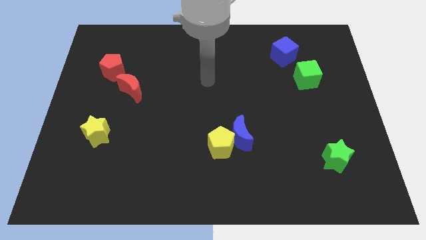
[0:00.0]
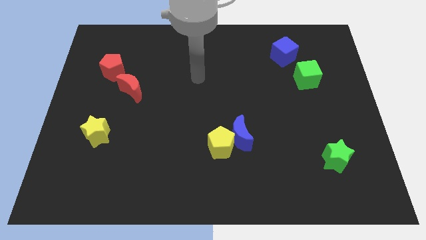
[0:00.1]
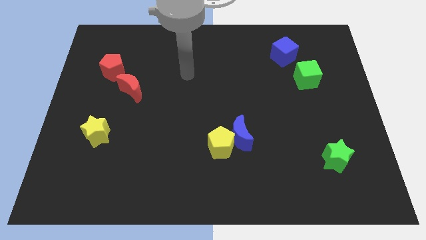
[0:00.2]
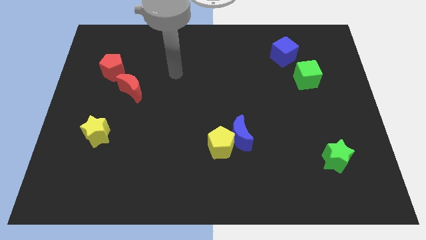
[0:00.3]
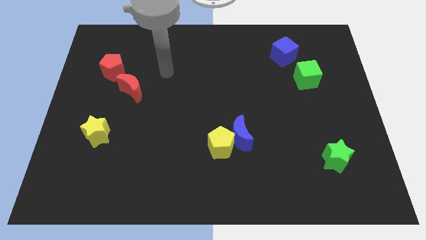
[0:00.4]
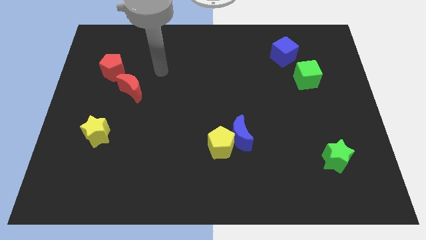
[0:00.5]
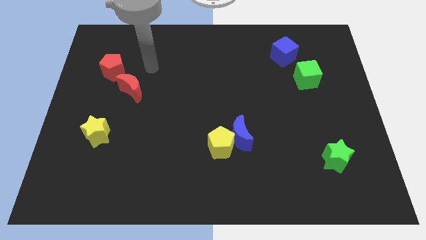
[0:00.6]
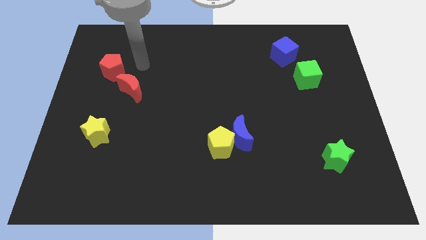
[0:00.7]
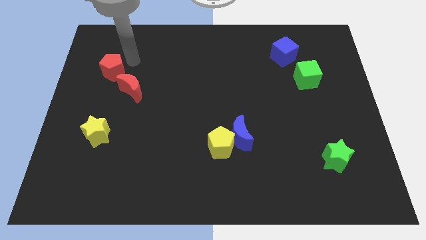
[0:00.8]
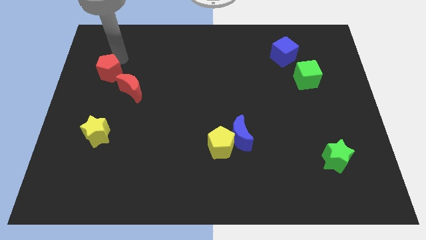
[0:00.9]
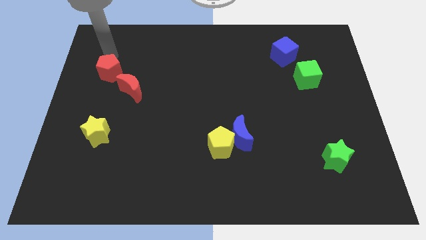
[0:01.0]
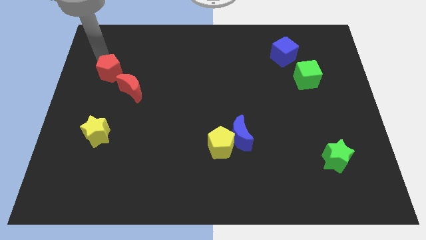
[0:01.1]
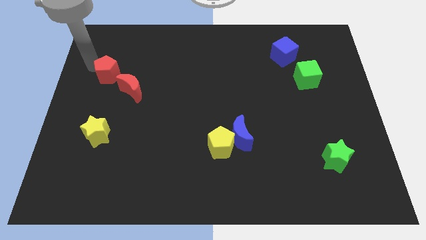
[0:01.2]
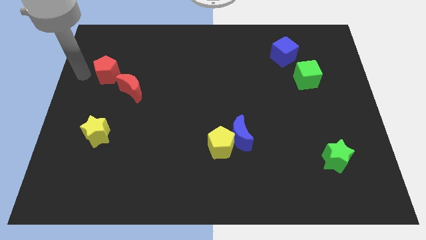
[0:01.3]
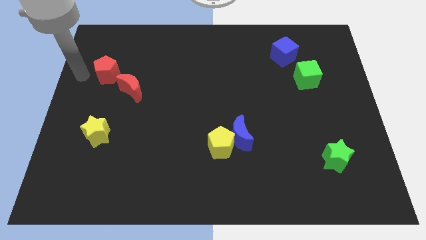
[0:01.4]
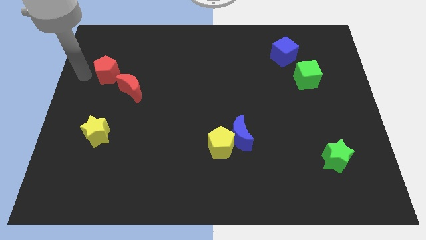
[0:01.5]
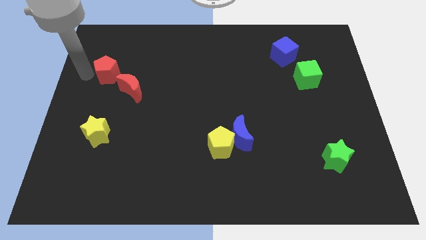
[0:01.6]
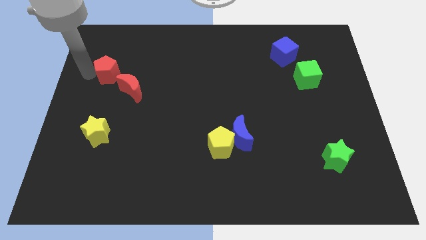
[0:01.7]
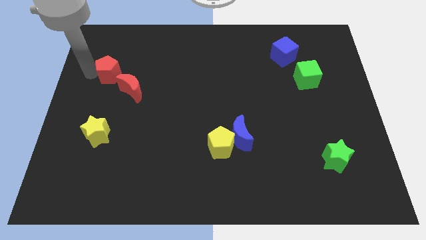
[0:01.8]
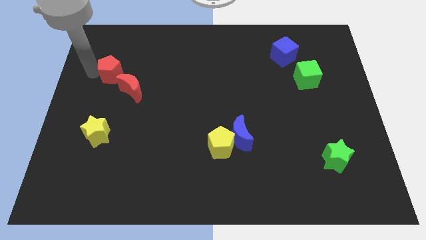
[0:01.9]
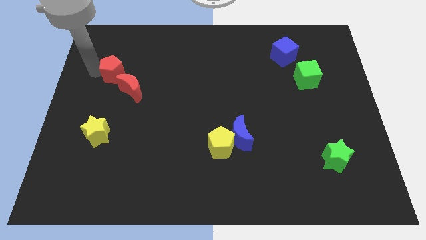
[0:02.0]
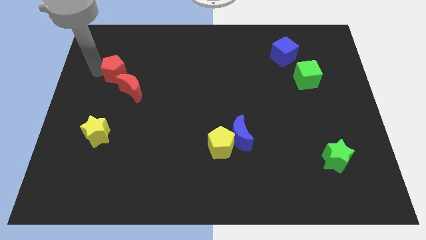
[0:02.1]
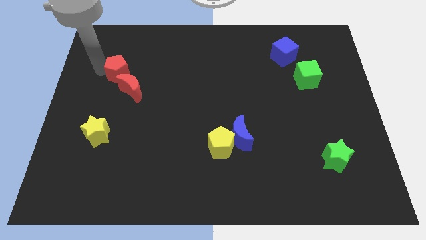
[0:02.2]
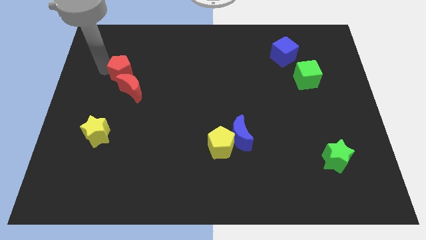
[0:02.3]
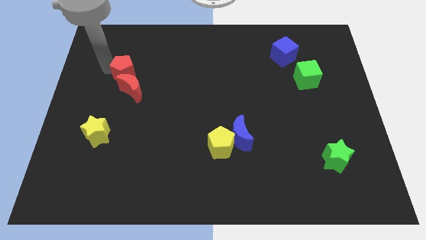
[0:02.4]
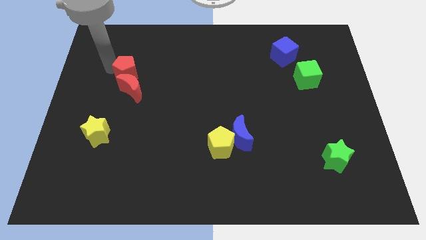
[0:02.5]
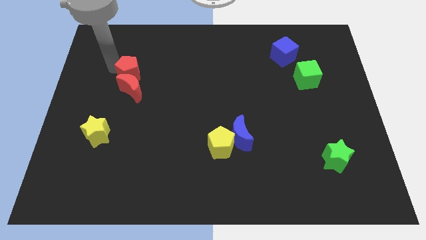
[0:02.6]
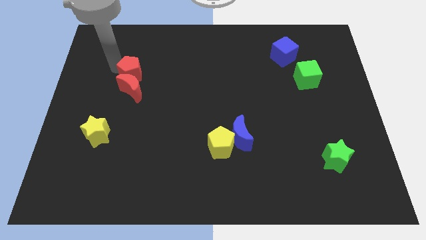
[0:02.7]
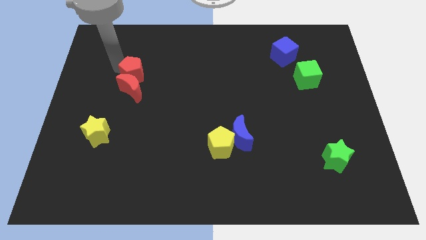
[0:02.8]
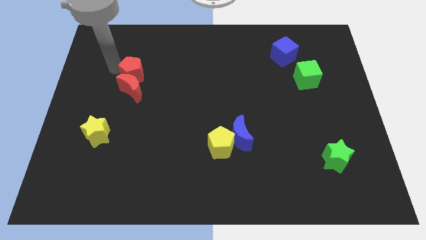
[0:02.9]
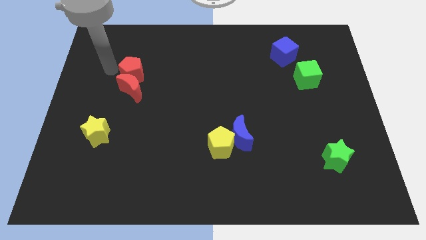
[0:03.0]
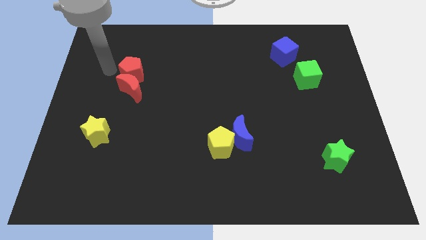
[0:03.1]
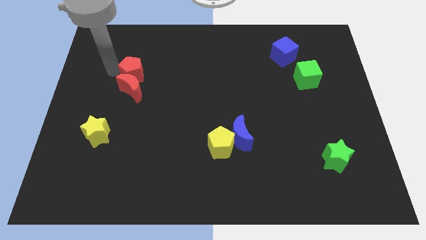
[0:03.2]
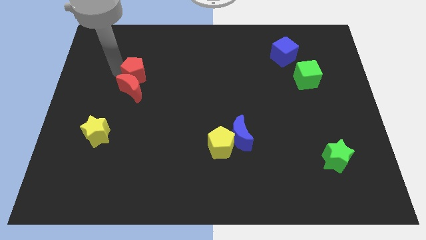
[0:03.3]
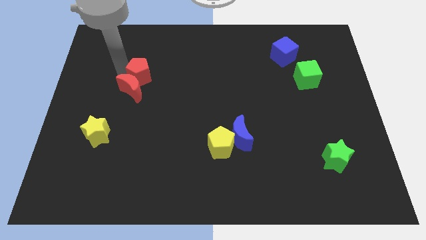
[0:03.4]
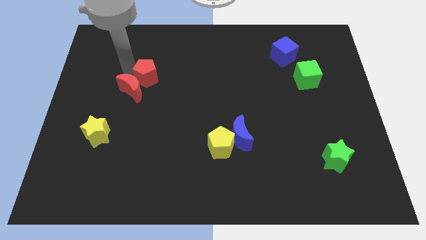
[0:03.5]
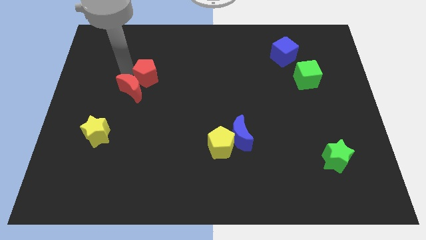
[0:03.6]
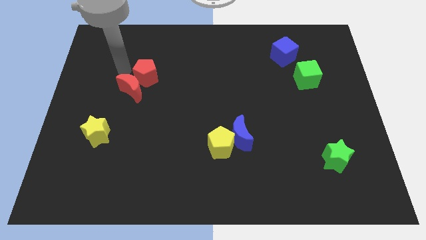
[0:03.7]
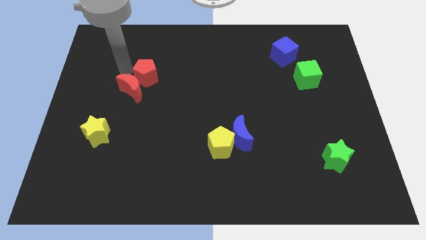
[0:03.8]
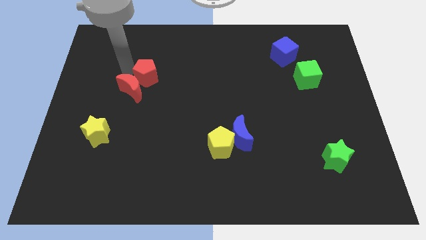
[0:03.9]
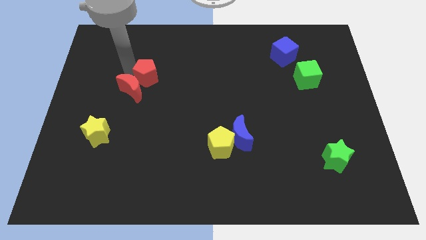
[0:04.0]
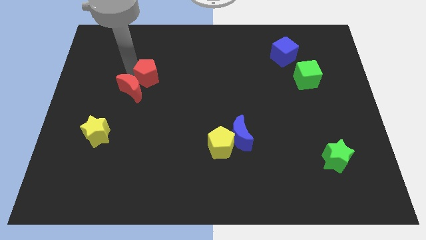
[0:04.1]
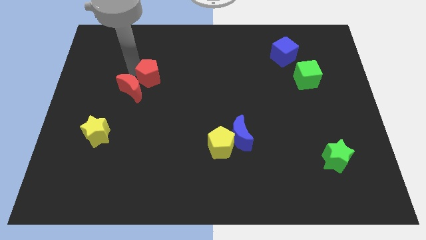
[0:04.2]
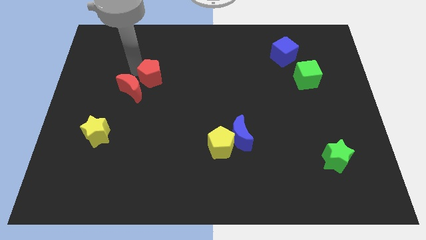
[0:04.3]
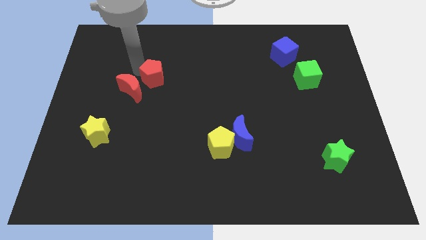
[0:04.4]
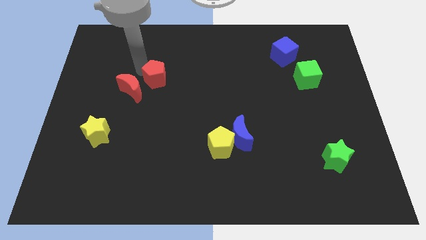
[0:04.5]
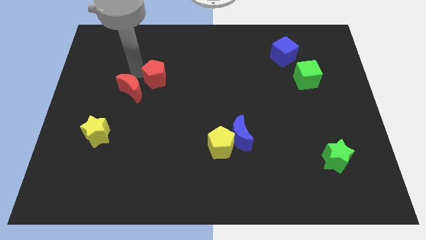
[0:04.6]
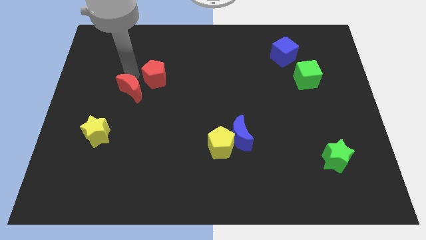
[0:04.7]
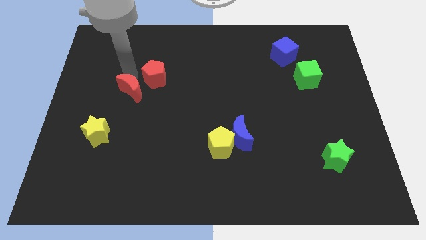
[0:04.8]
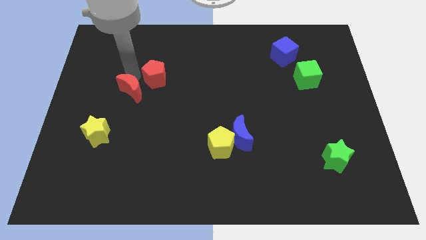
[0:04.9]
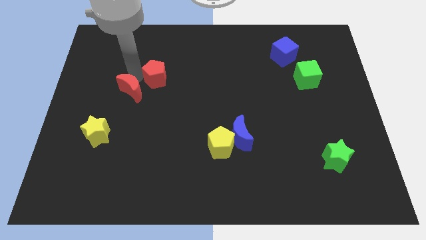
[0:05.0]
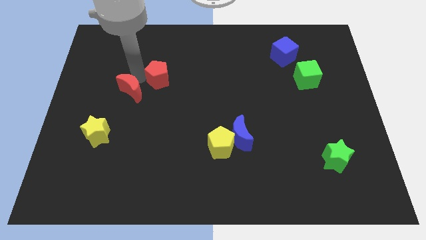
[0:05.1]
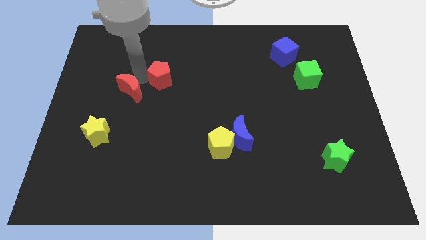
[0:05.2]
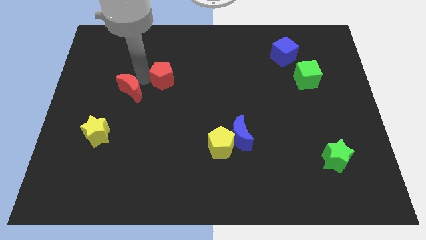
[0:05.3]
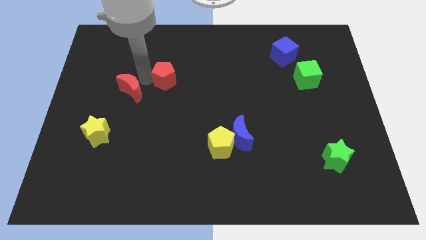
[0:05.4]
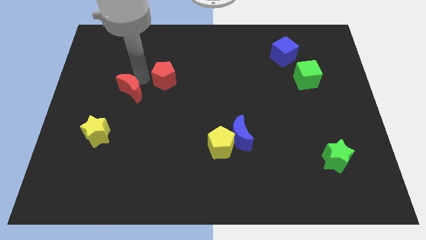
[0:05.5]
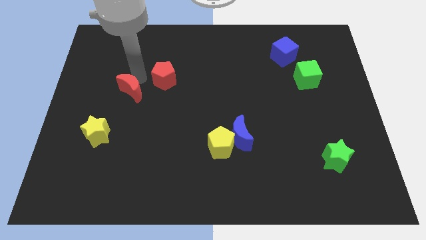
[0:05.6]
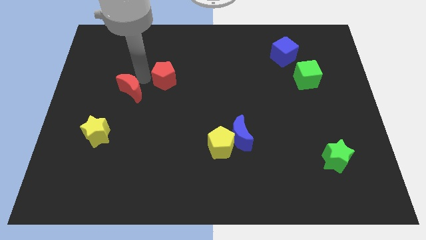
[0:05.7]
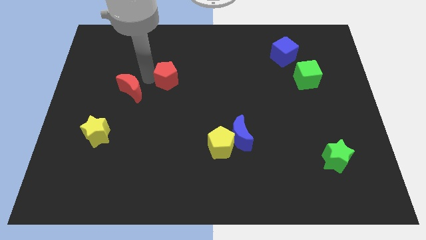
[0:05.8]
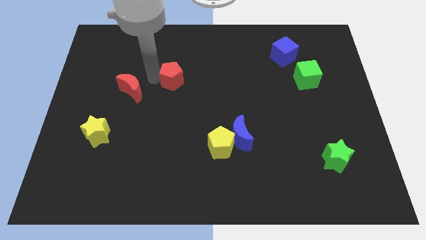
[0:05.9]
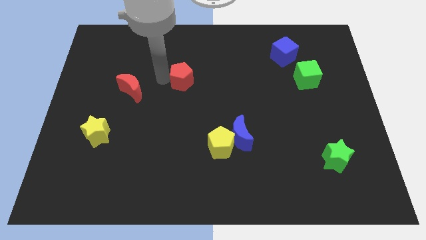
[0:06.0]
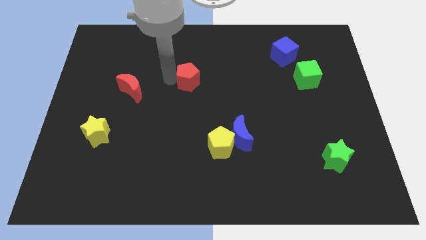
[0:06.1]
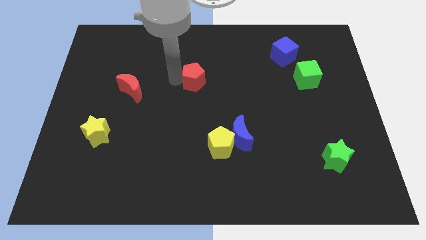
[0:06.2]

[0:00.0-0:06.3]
move the red pentagon right

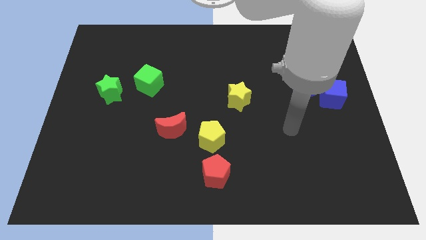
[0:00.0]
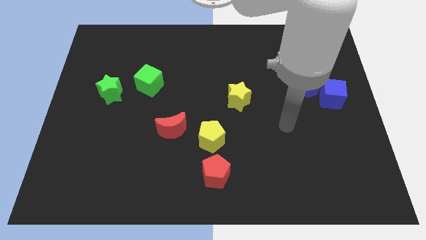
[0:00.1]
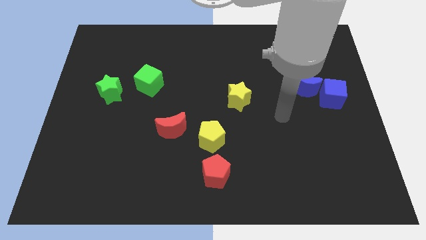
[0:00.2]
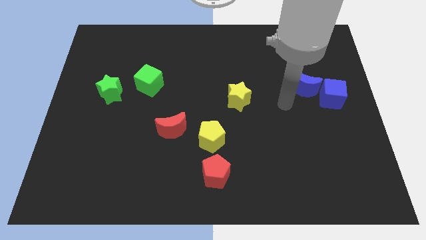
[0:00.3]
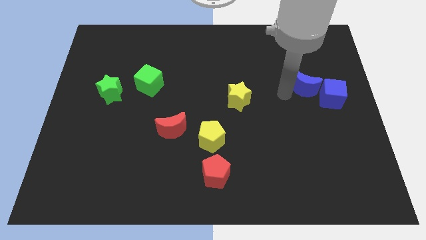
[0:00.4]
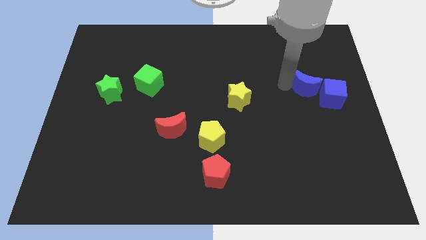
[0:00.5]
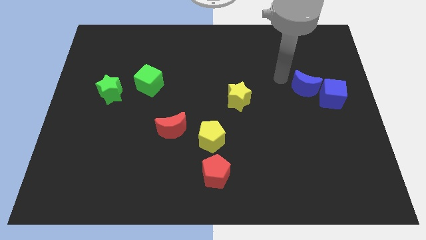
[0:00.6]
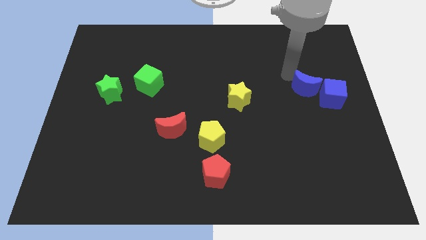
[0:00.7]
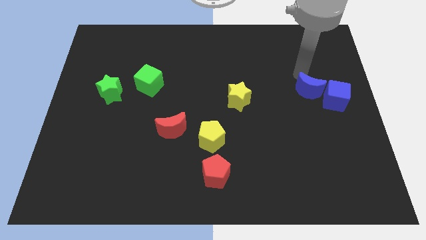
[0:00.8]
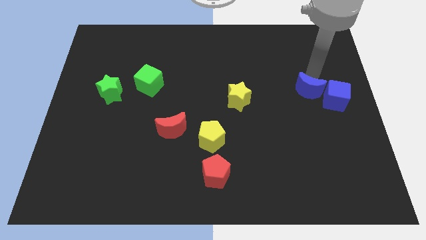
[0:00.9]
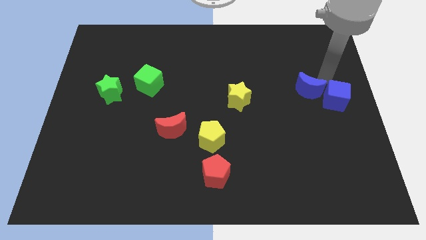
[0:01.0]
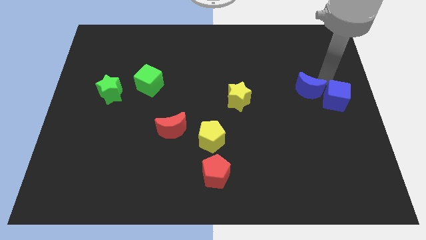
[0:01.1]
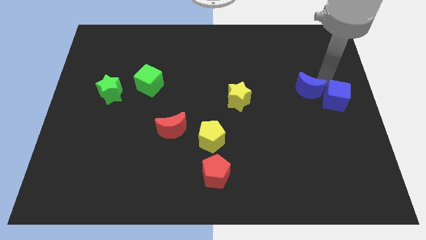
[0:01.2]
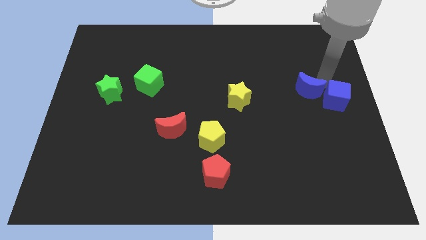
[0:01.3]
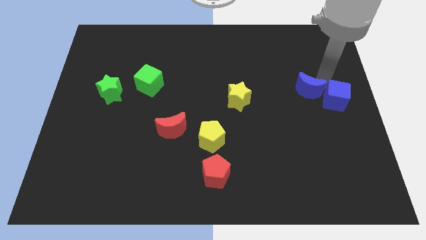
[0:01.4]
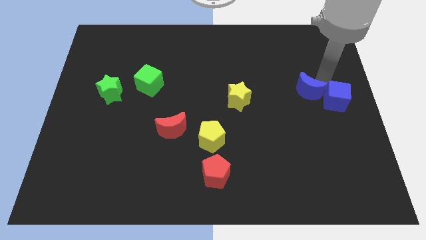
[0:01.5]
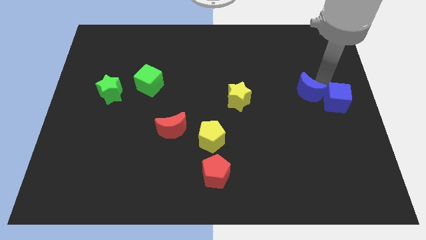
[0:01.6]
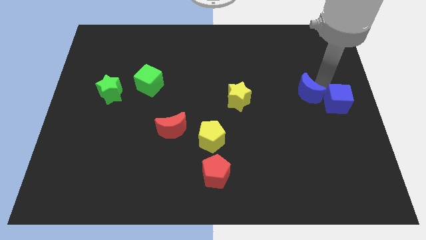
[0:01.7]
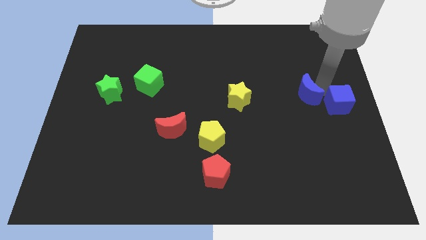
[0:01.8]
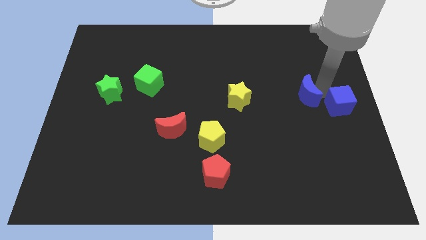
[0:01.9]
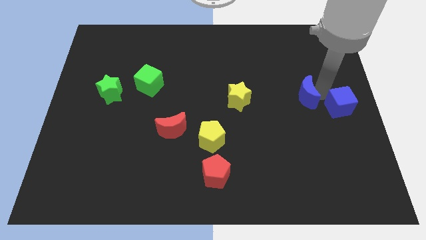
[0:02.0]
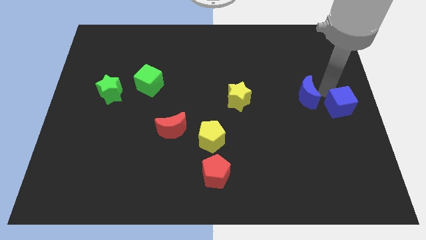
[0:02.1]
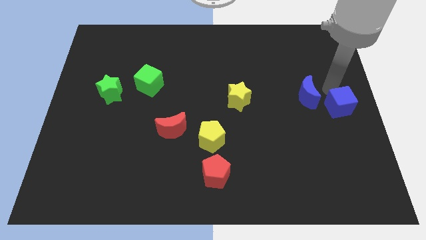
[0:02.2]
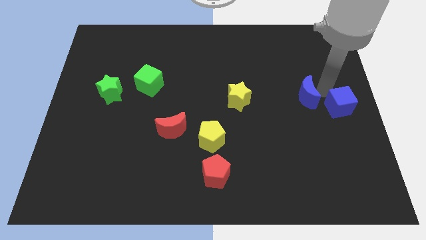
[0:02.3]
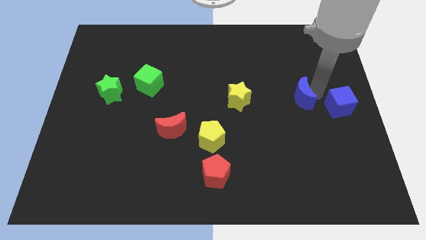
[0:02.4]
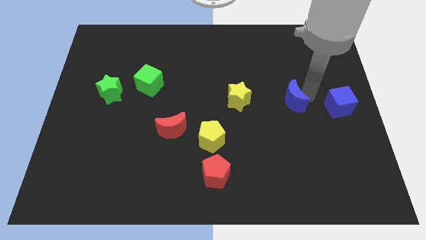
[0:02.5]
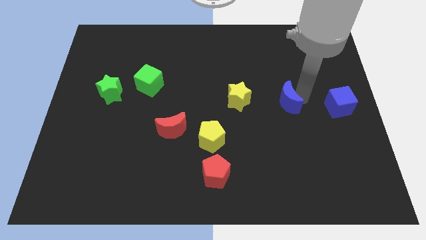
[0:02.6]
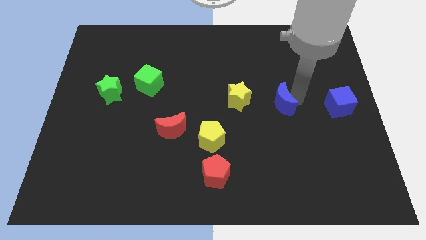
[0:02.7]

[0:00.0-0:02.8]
move the blue moon downwards and then left a bit
